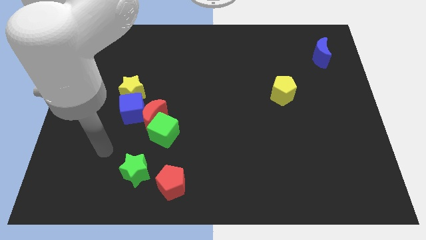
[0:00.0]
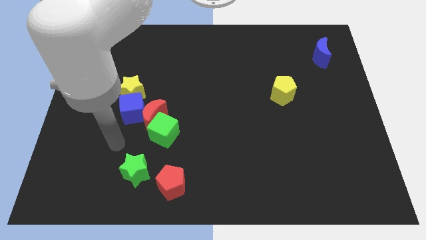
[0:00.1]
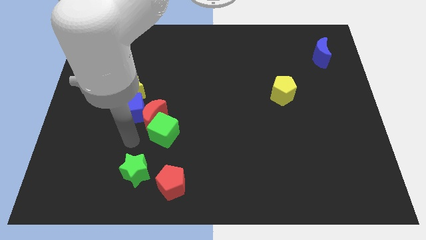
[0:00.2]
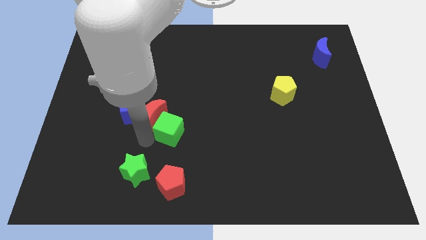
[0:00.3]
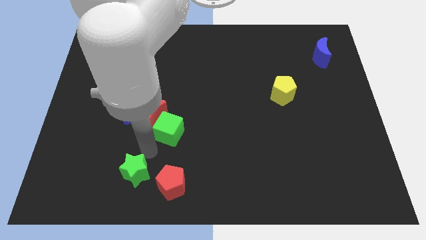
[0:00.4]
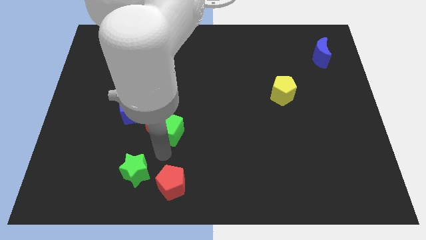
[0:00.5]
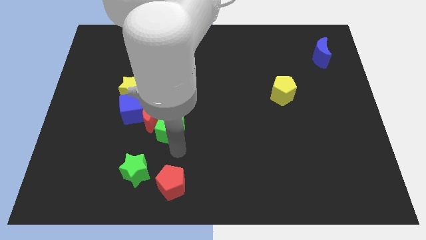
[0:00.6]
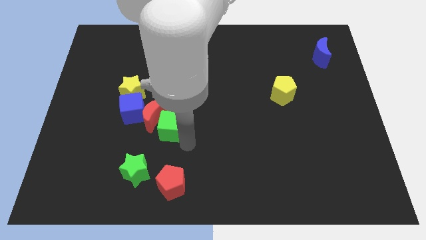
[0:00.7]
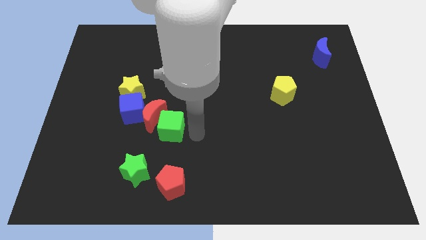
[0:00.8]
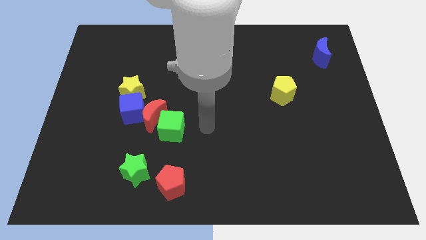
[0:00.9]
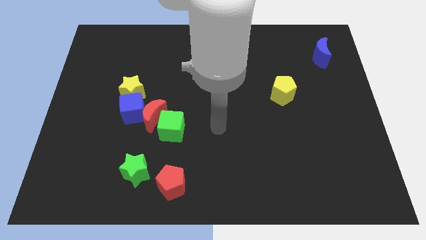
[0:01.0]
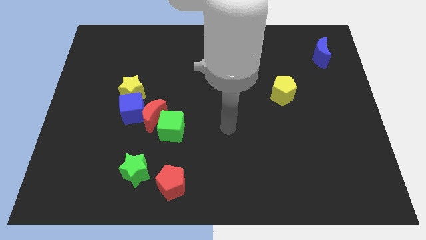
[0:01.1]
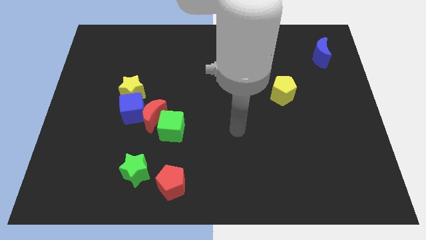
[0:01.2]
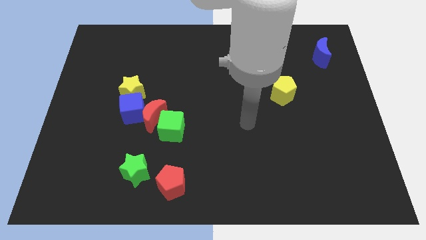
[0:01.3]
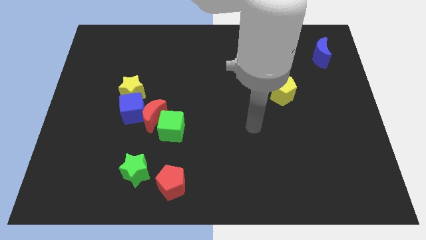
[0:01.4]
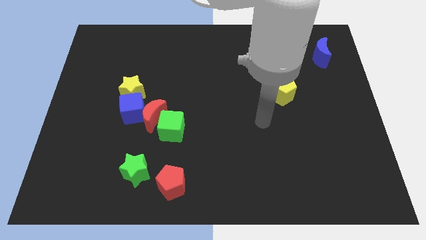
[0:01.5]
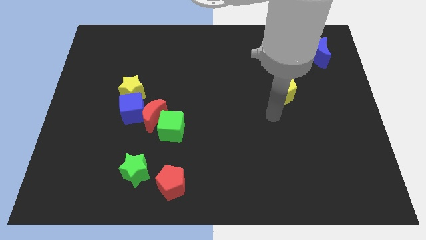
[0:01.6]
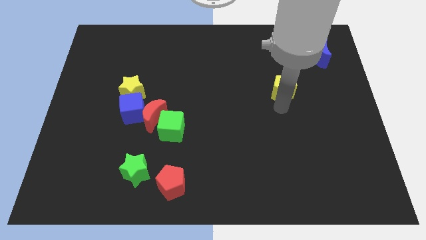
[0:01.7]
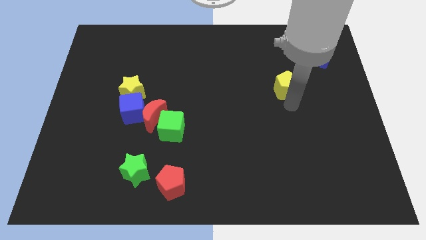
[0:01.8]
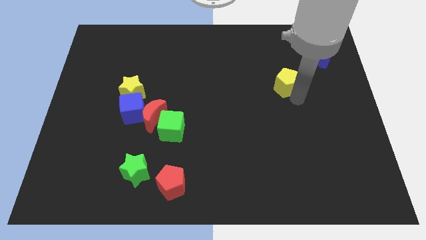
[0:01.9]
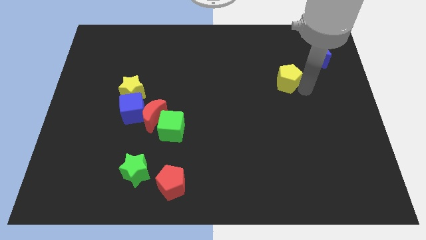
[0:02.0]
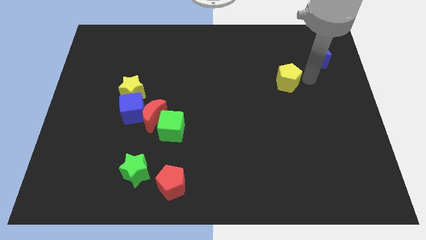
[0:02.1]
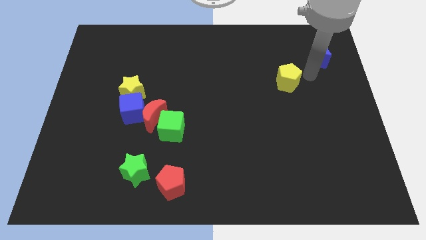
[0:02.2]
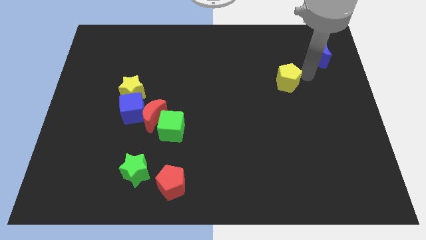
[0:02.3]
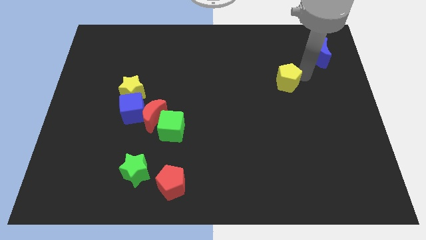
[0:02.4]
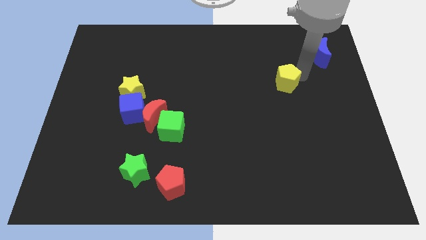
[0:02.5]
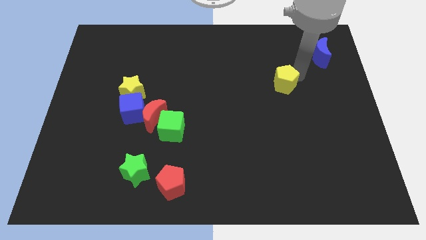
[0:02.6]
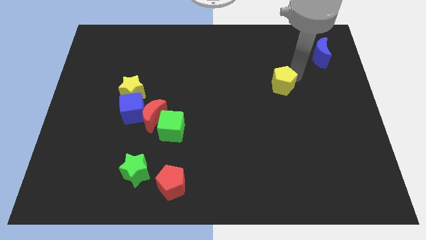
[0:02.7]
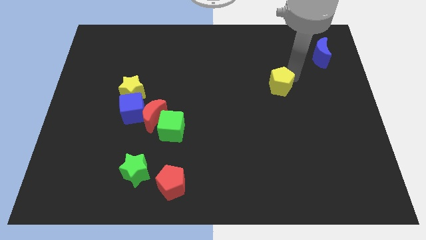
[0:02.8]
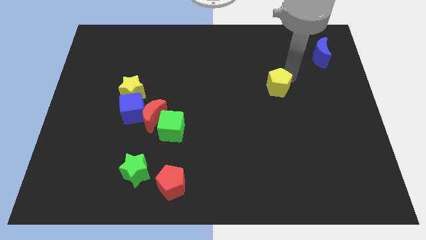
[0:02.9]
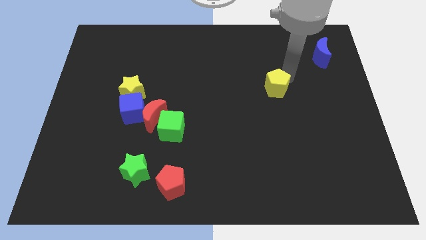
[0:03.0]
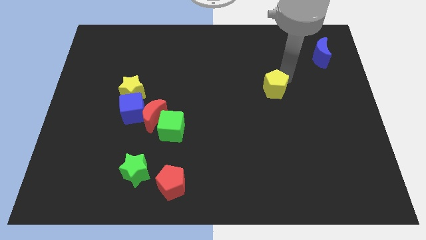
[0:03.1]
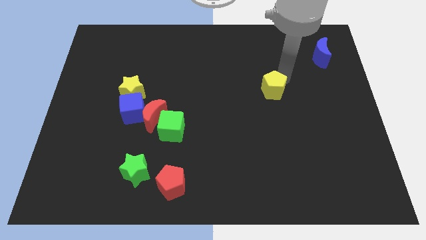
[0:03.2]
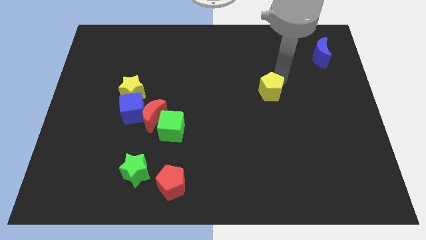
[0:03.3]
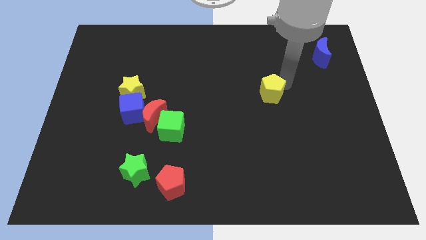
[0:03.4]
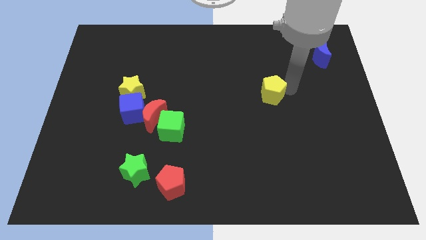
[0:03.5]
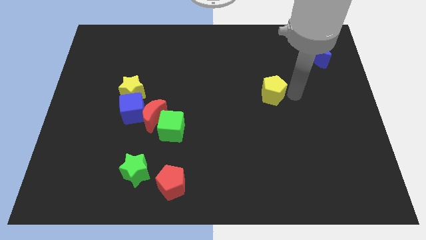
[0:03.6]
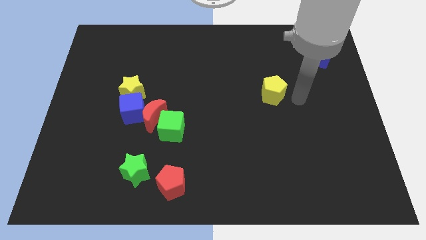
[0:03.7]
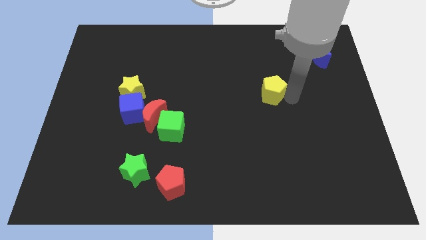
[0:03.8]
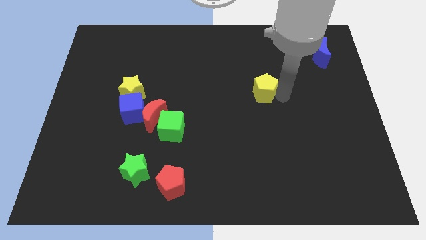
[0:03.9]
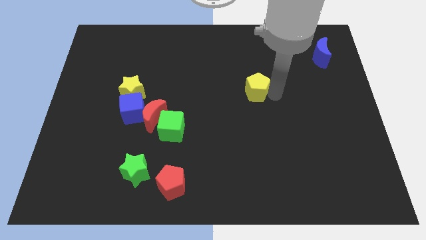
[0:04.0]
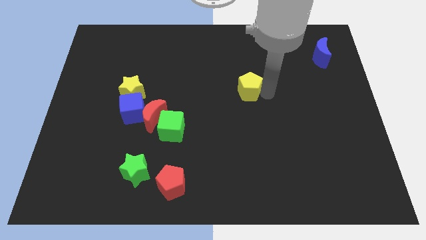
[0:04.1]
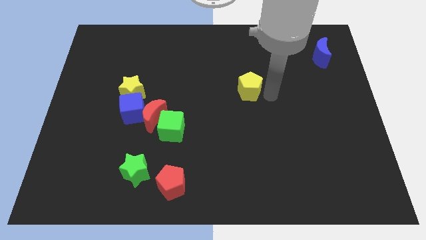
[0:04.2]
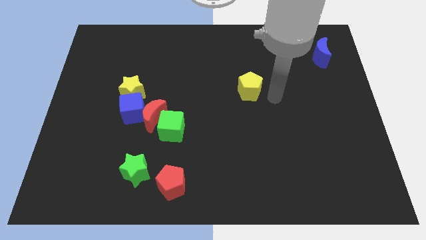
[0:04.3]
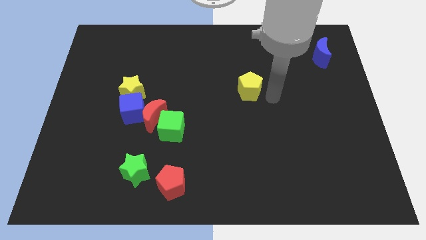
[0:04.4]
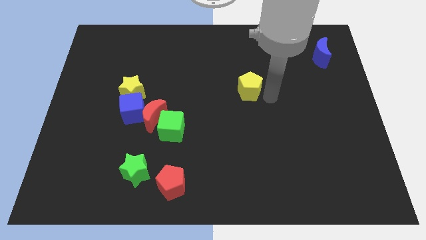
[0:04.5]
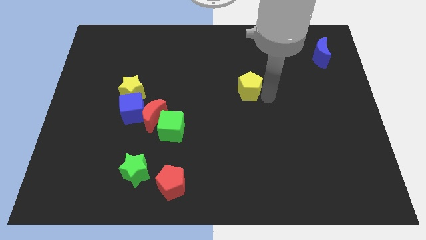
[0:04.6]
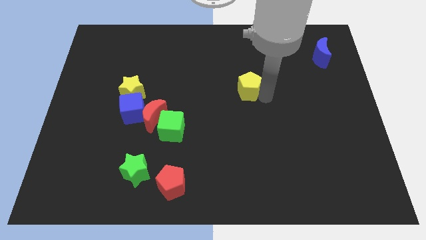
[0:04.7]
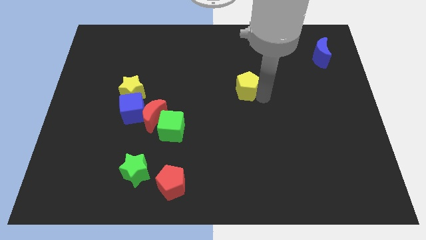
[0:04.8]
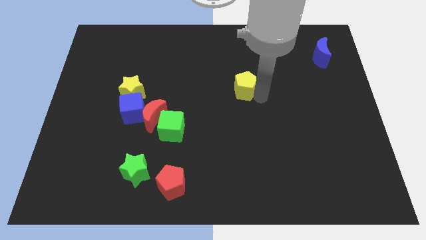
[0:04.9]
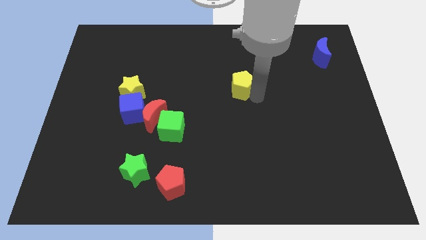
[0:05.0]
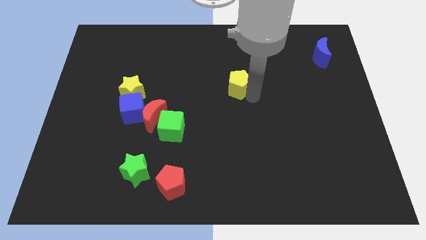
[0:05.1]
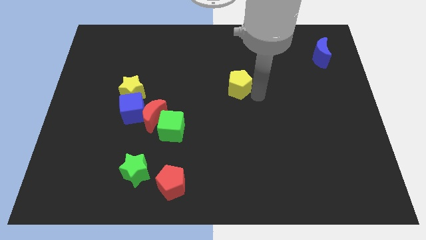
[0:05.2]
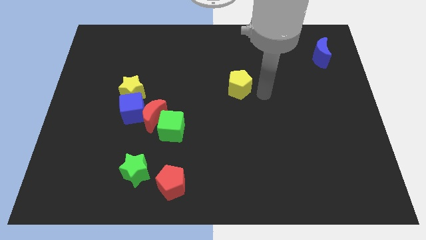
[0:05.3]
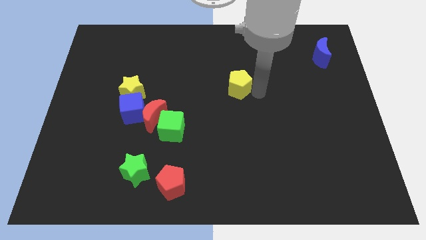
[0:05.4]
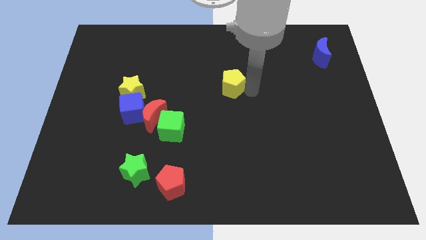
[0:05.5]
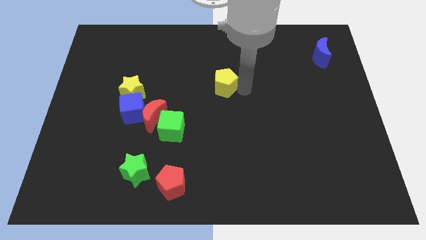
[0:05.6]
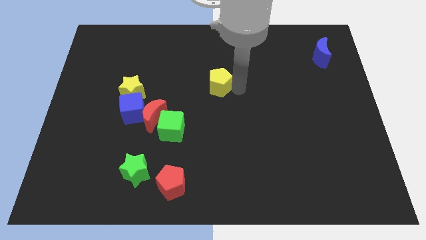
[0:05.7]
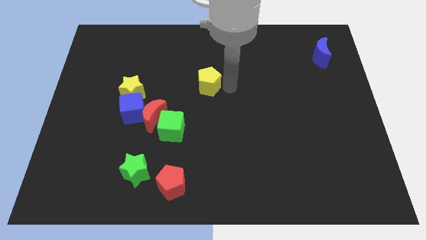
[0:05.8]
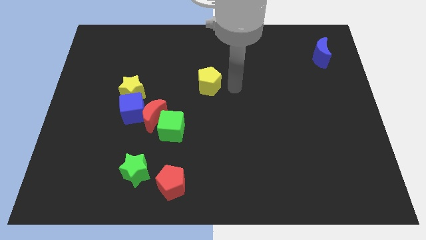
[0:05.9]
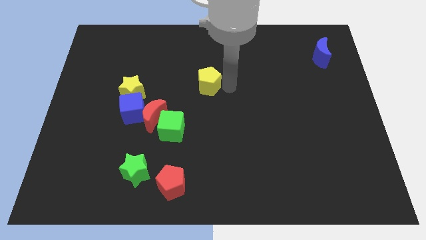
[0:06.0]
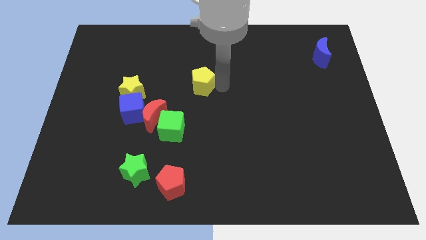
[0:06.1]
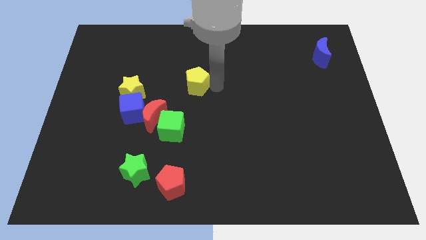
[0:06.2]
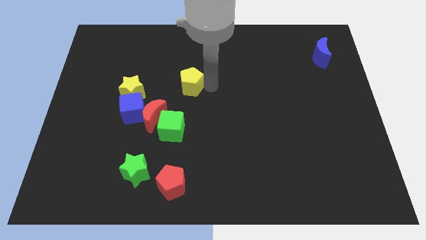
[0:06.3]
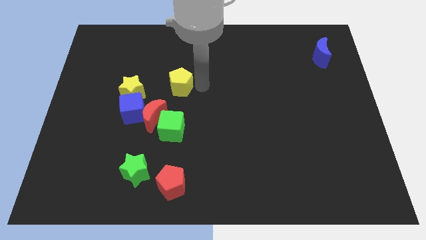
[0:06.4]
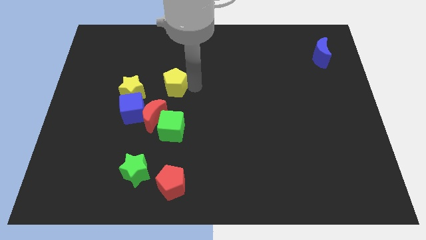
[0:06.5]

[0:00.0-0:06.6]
slide the yellow pentagon above the red moon
